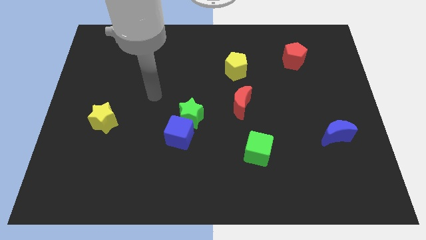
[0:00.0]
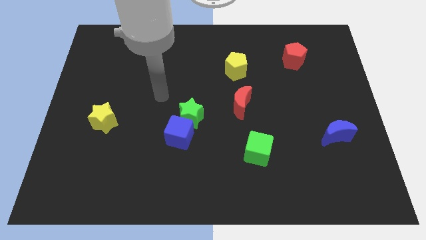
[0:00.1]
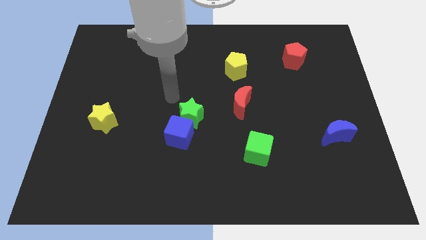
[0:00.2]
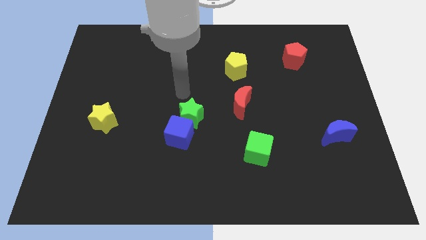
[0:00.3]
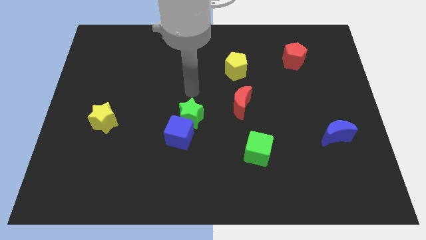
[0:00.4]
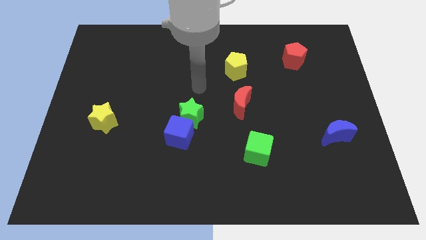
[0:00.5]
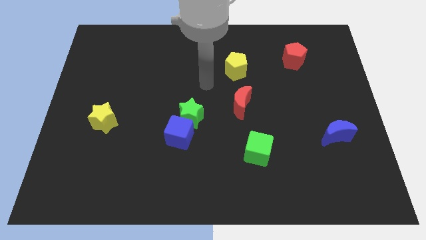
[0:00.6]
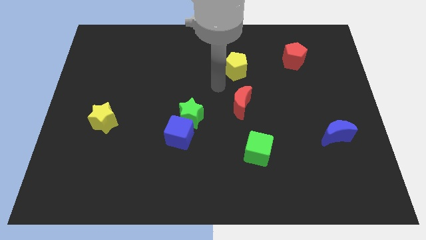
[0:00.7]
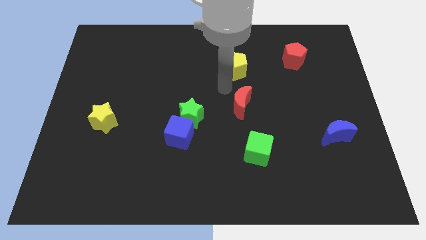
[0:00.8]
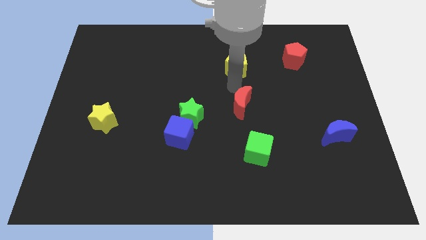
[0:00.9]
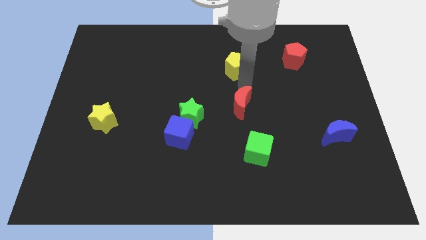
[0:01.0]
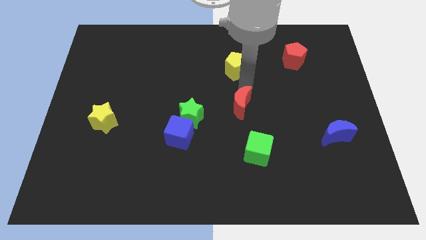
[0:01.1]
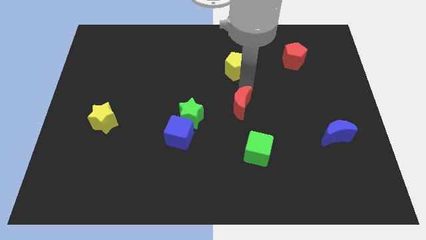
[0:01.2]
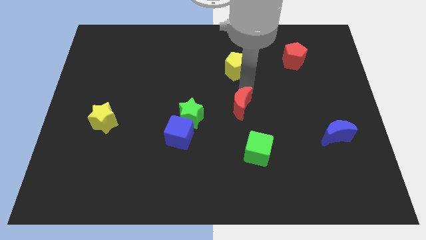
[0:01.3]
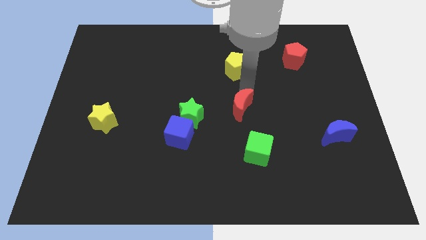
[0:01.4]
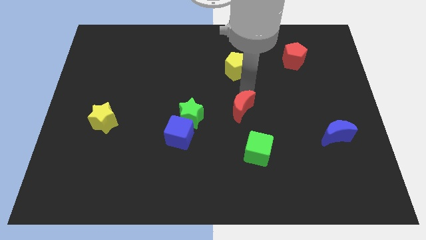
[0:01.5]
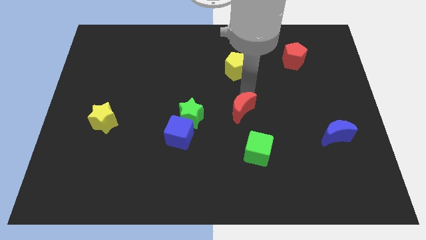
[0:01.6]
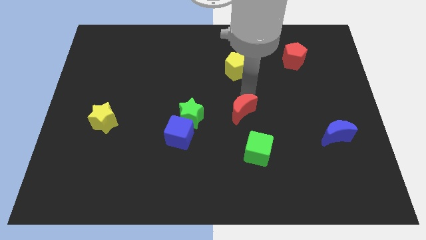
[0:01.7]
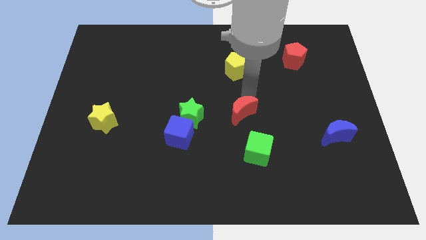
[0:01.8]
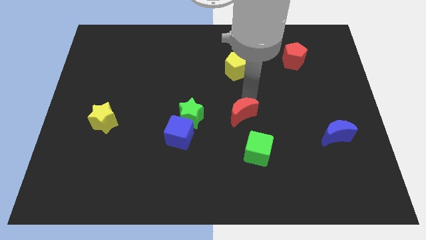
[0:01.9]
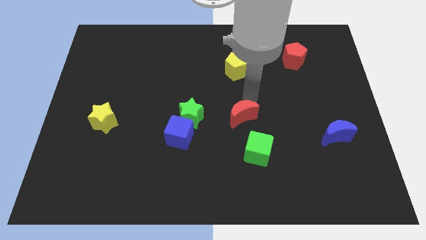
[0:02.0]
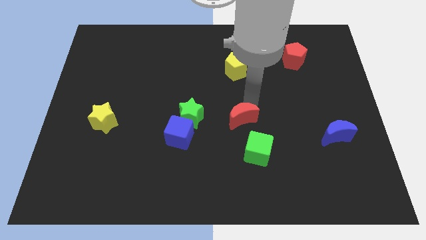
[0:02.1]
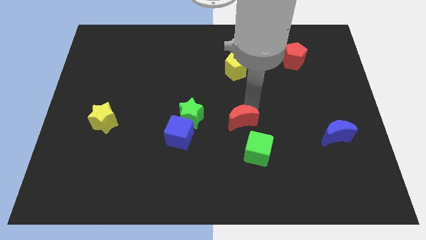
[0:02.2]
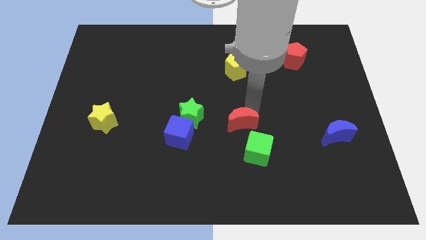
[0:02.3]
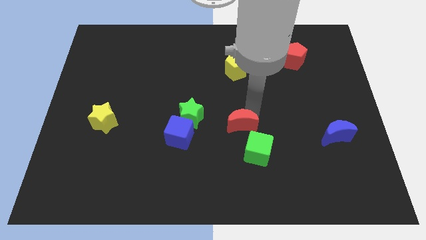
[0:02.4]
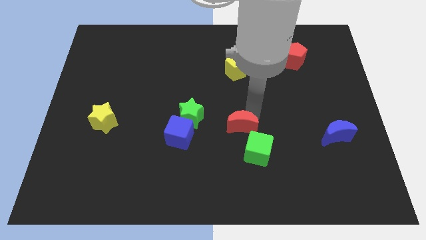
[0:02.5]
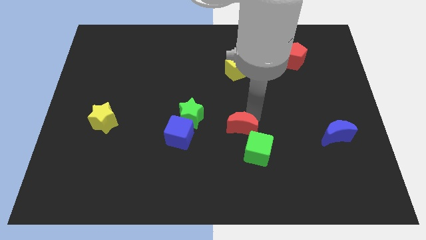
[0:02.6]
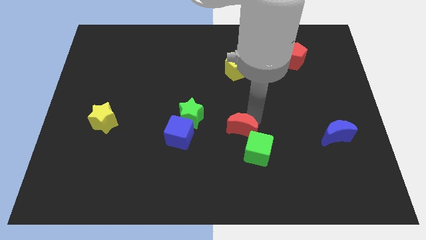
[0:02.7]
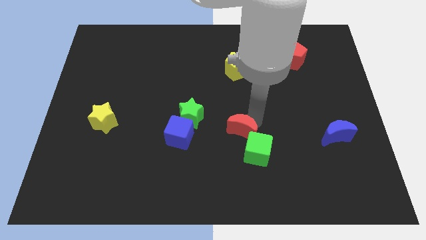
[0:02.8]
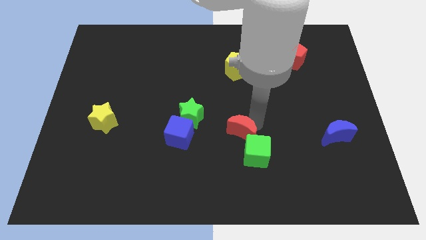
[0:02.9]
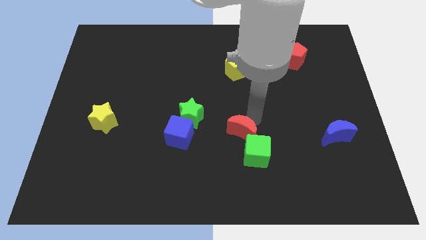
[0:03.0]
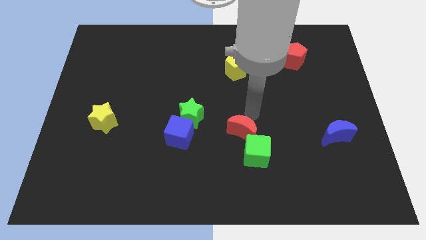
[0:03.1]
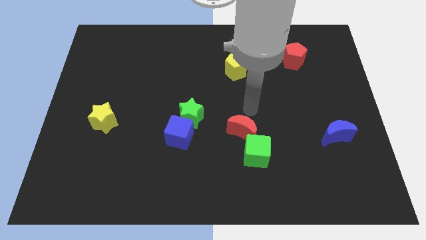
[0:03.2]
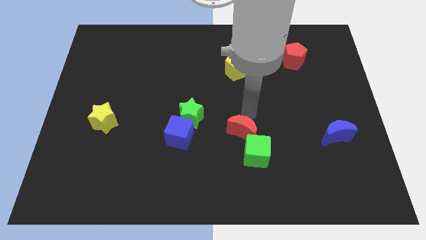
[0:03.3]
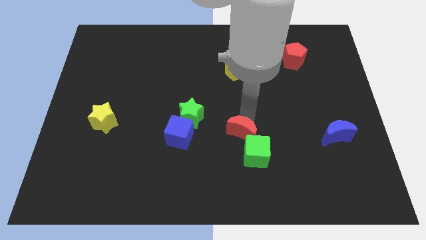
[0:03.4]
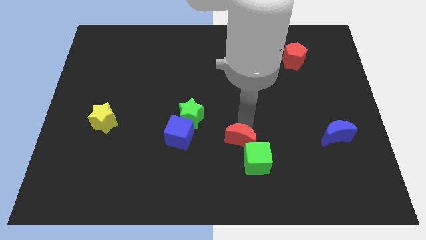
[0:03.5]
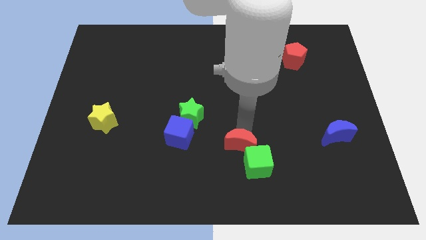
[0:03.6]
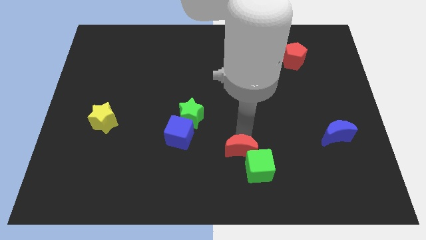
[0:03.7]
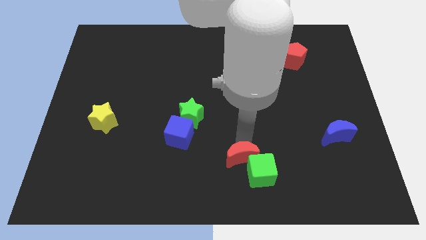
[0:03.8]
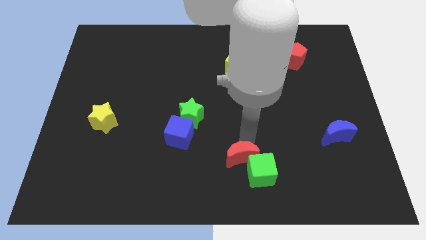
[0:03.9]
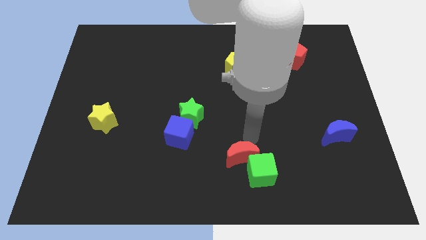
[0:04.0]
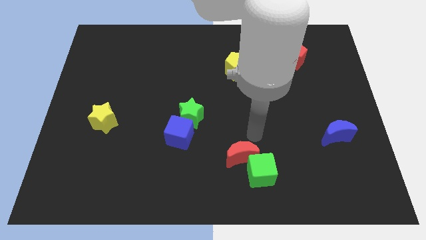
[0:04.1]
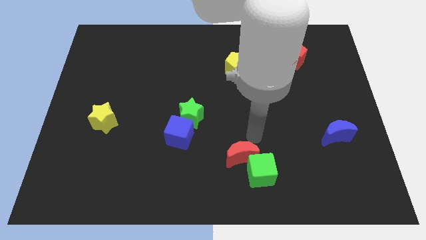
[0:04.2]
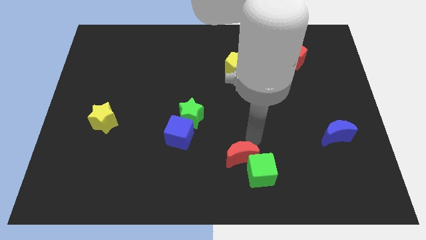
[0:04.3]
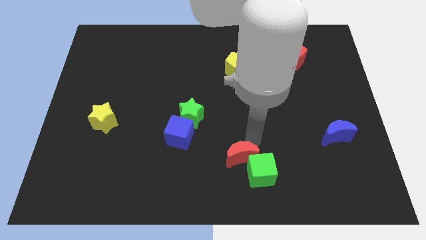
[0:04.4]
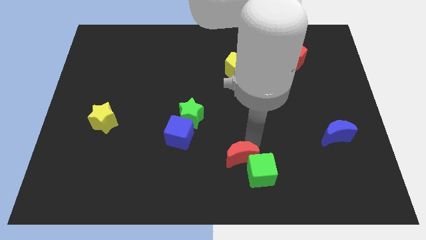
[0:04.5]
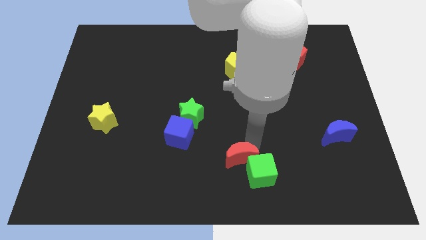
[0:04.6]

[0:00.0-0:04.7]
move the red moon to the bottom side

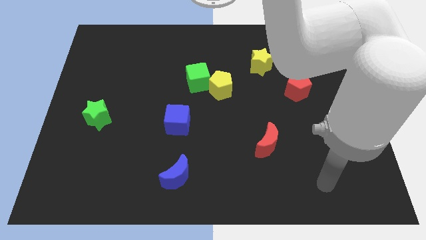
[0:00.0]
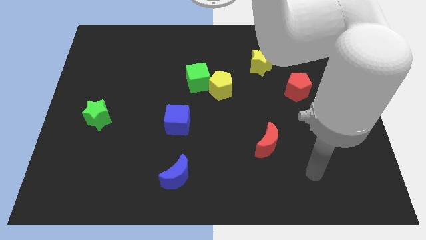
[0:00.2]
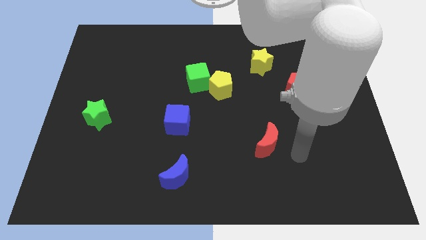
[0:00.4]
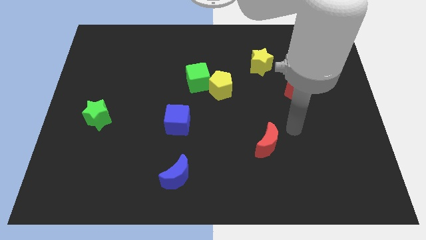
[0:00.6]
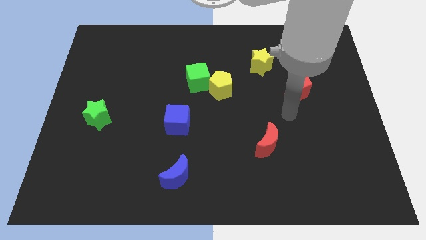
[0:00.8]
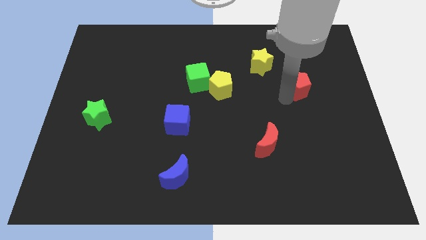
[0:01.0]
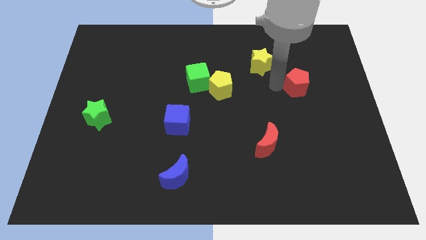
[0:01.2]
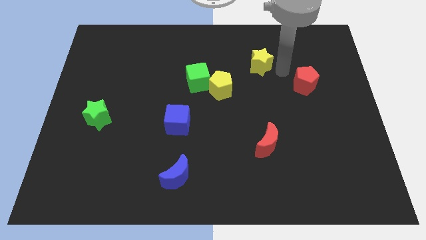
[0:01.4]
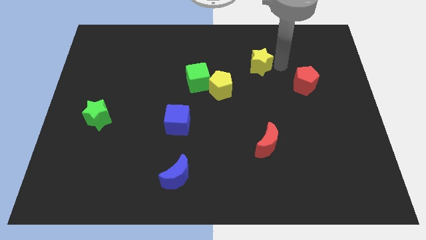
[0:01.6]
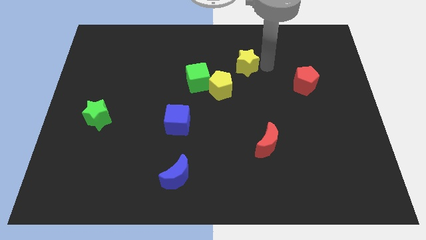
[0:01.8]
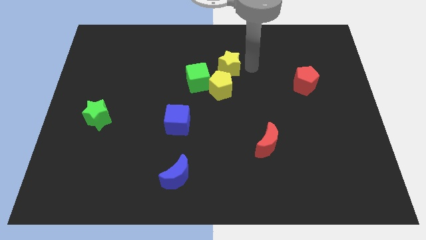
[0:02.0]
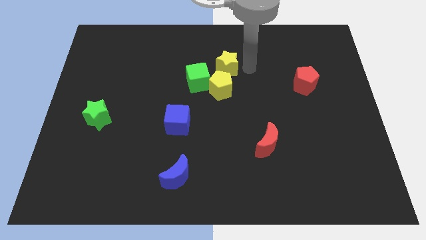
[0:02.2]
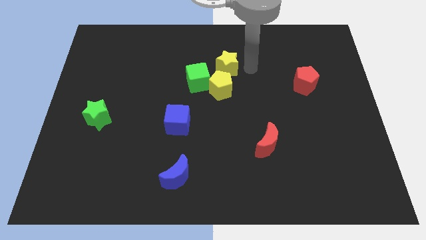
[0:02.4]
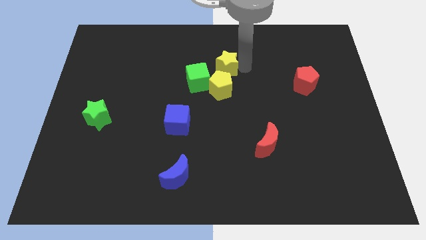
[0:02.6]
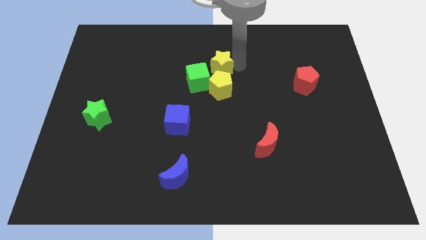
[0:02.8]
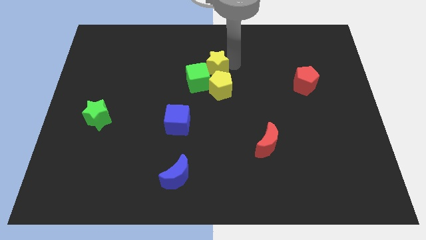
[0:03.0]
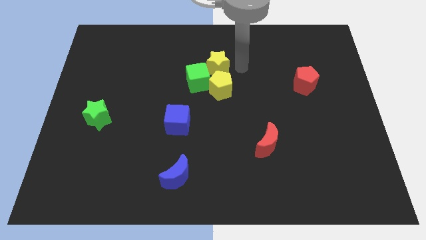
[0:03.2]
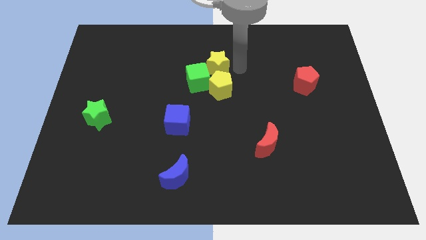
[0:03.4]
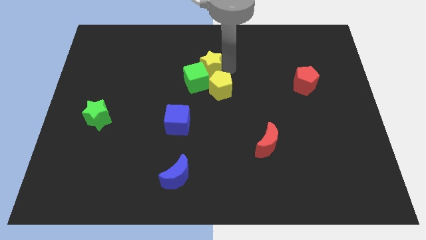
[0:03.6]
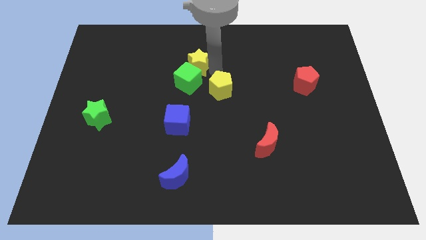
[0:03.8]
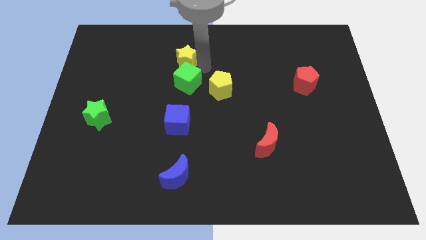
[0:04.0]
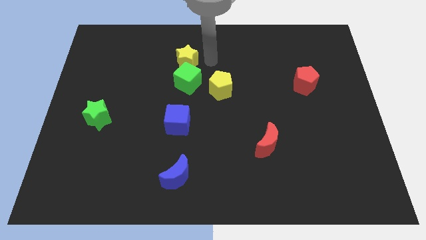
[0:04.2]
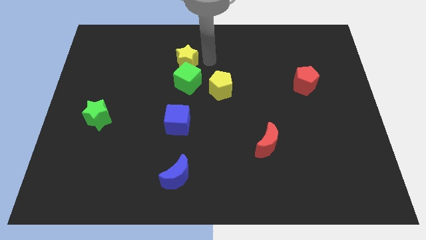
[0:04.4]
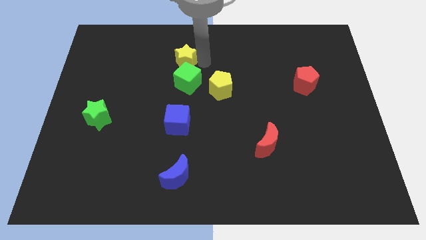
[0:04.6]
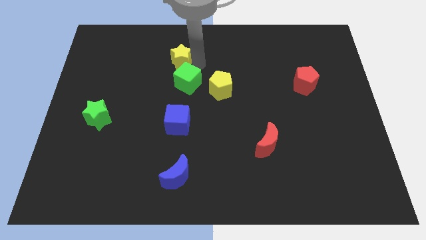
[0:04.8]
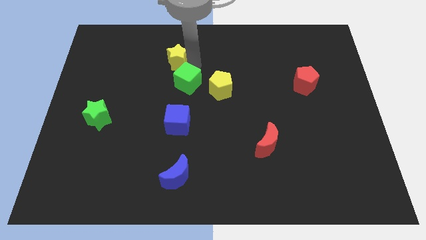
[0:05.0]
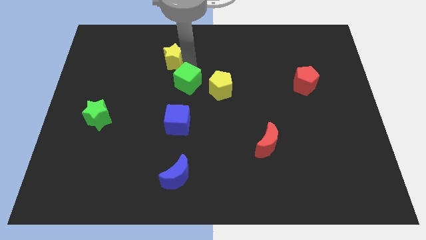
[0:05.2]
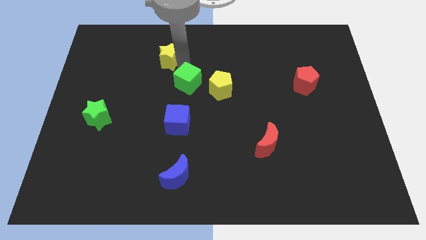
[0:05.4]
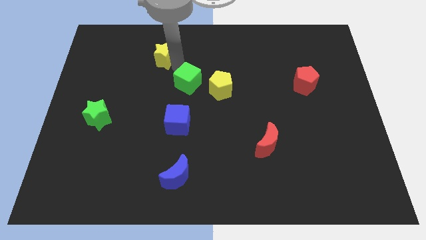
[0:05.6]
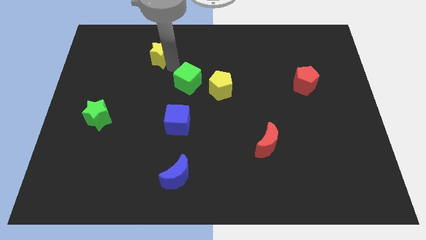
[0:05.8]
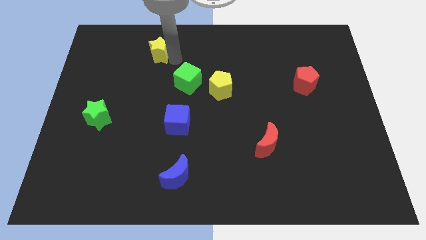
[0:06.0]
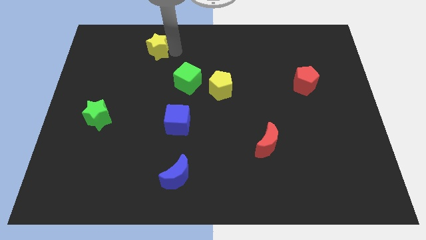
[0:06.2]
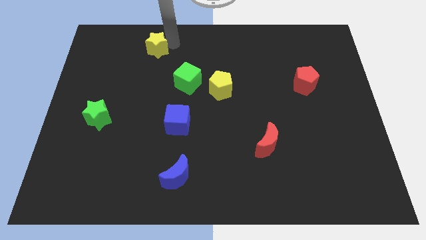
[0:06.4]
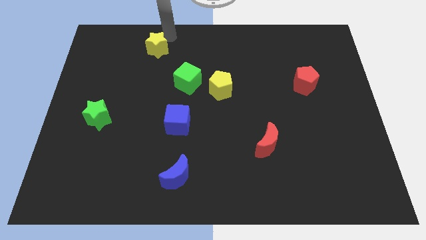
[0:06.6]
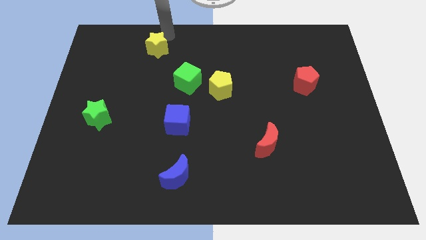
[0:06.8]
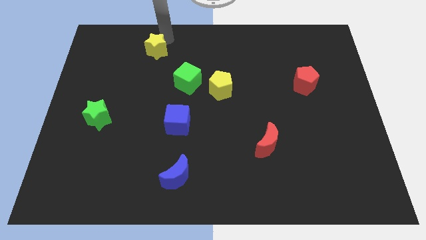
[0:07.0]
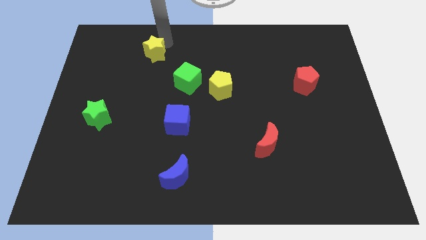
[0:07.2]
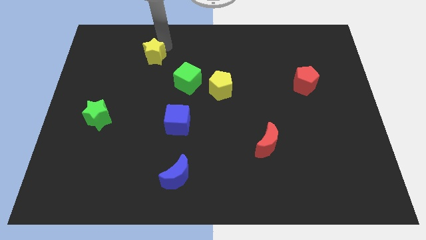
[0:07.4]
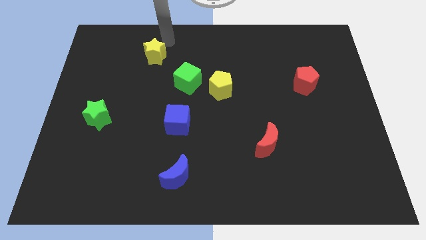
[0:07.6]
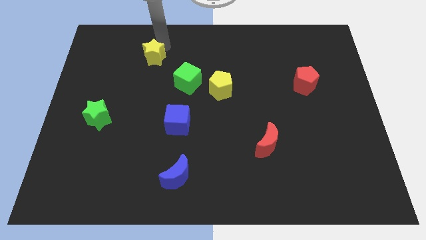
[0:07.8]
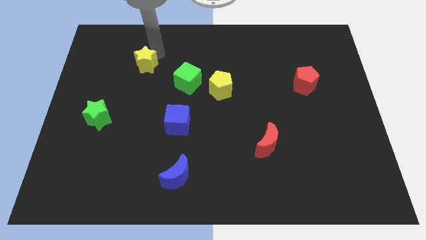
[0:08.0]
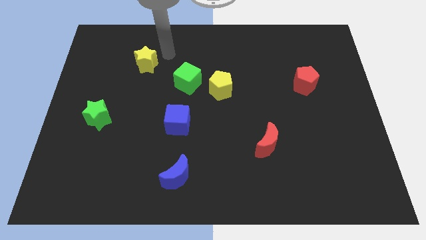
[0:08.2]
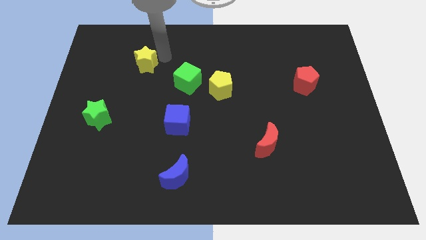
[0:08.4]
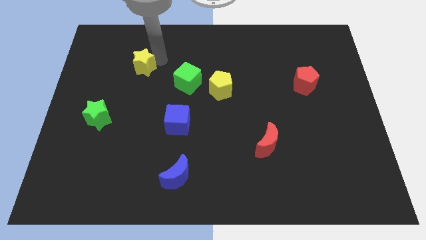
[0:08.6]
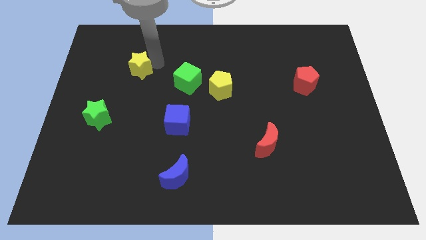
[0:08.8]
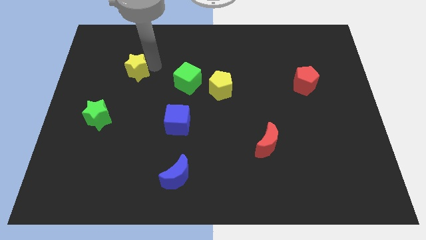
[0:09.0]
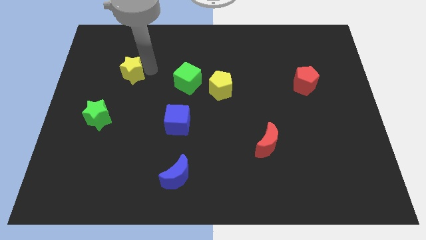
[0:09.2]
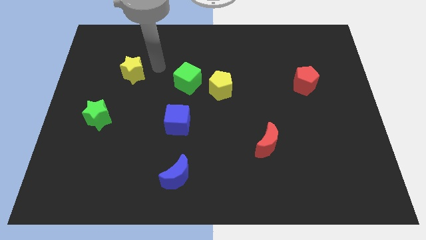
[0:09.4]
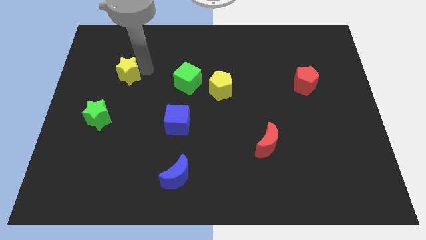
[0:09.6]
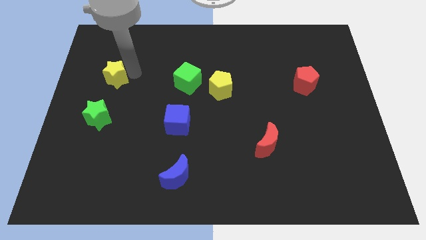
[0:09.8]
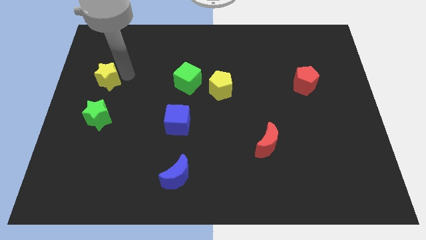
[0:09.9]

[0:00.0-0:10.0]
push the yellow star to the center left
